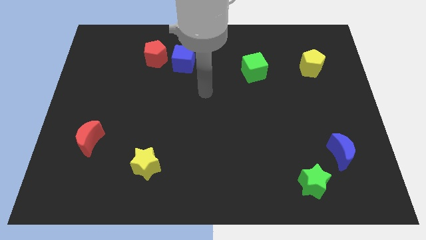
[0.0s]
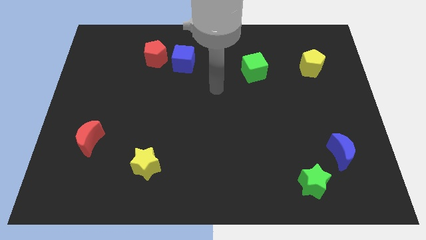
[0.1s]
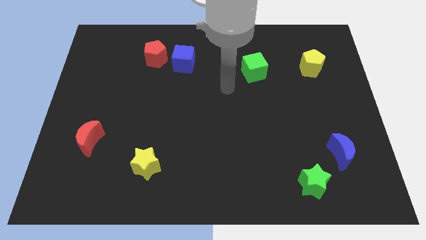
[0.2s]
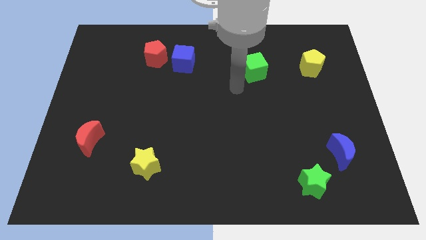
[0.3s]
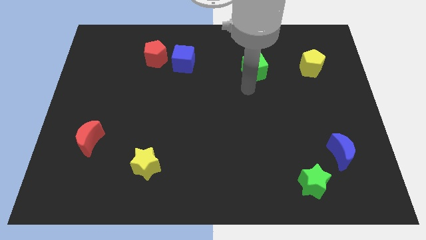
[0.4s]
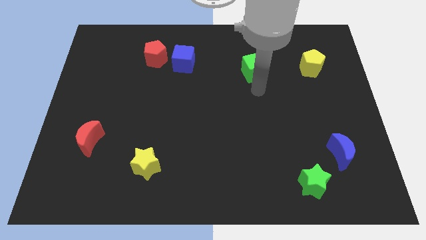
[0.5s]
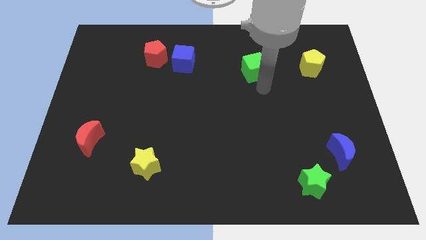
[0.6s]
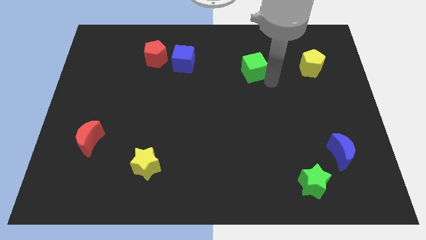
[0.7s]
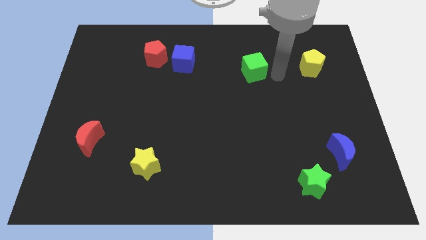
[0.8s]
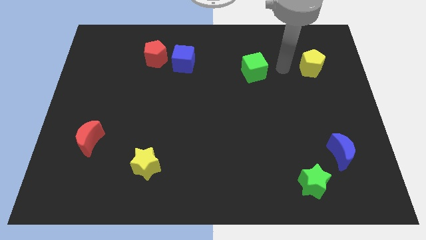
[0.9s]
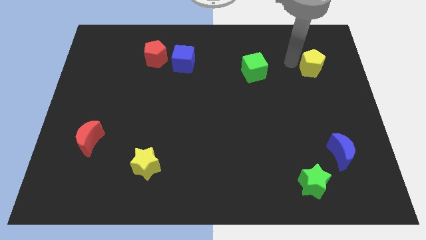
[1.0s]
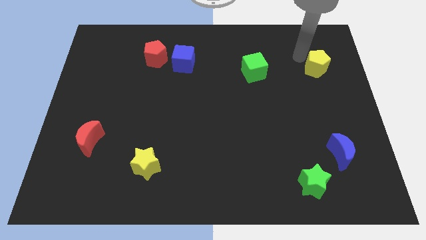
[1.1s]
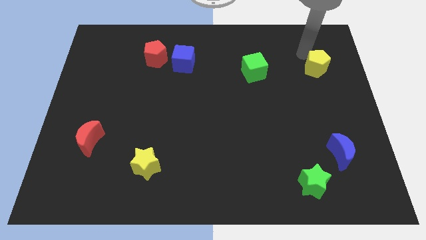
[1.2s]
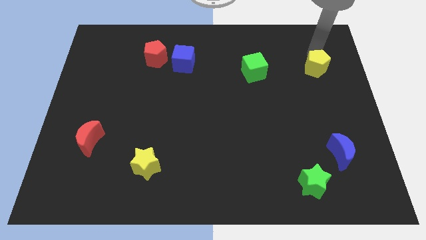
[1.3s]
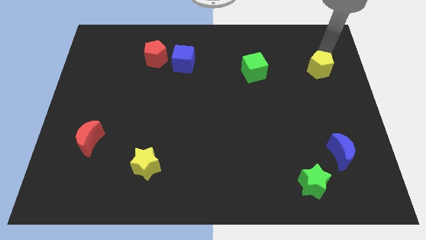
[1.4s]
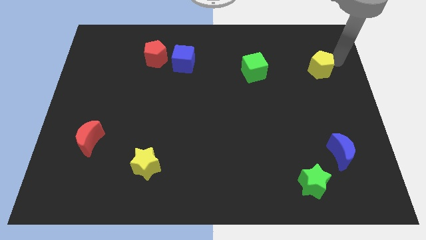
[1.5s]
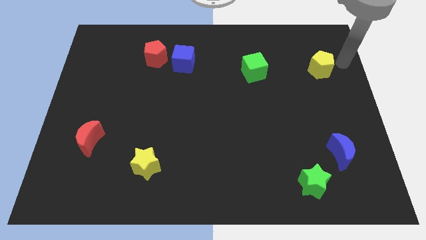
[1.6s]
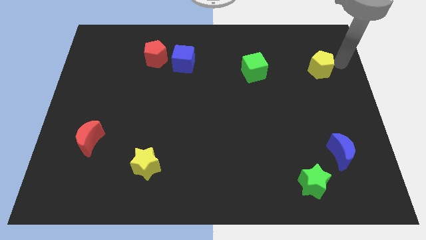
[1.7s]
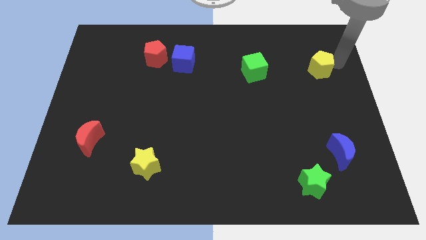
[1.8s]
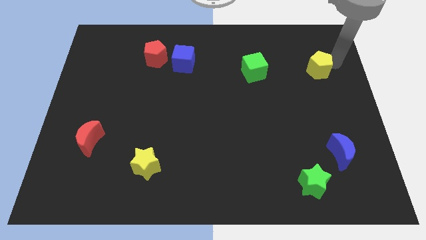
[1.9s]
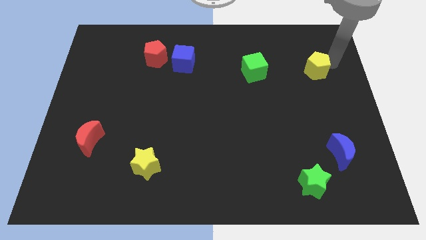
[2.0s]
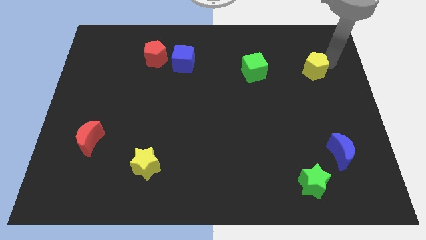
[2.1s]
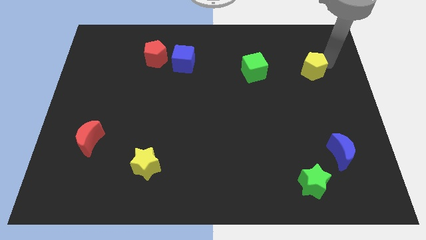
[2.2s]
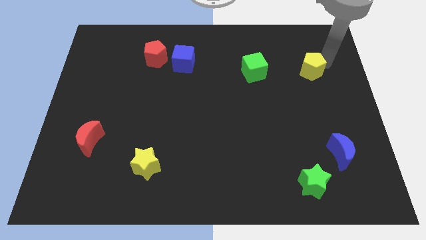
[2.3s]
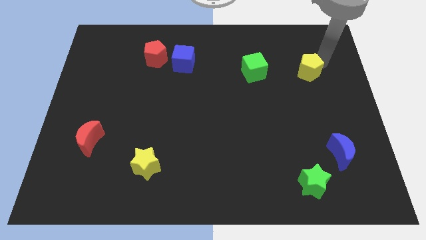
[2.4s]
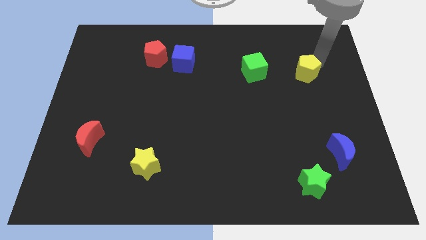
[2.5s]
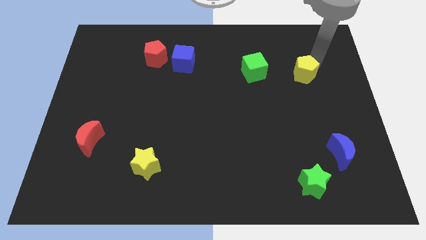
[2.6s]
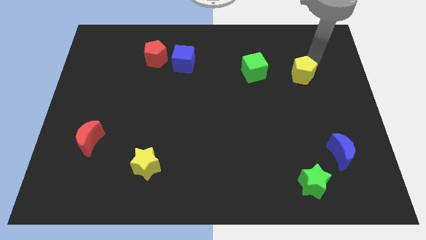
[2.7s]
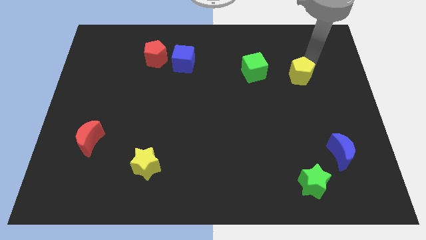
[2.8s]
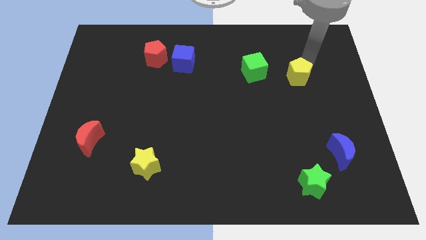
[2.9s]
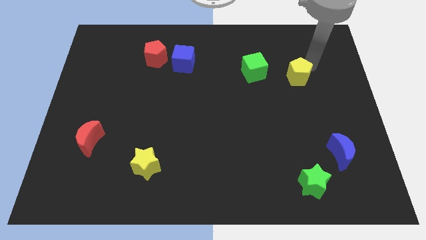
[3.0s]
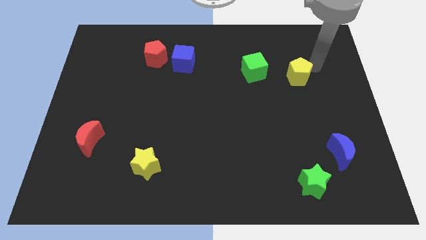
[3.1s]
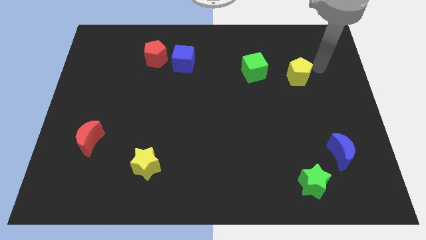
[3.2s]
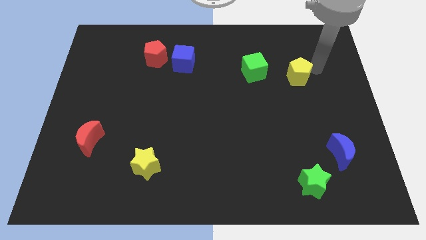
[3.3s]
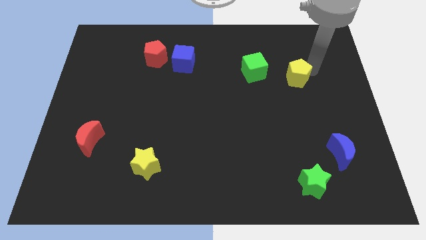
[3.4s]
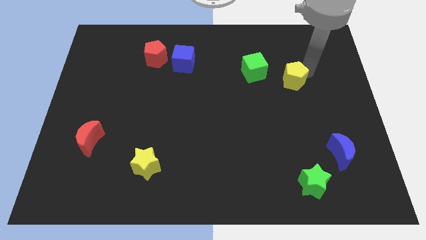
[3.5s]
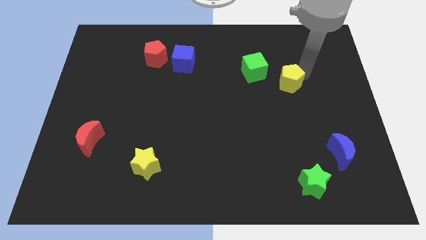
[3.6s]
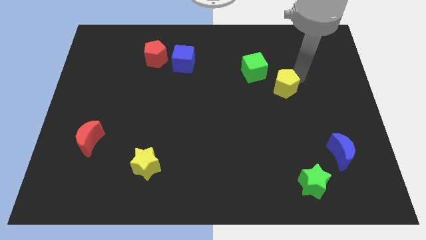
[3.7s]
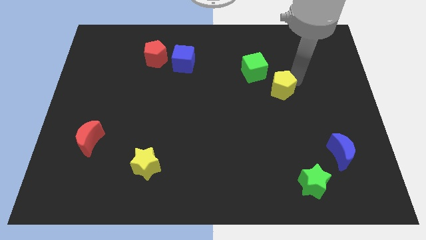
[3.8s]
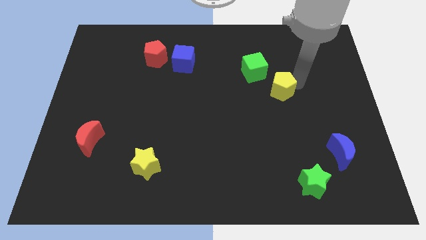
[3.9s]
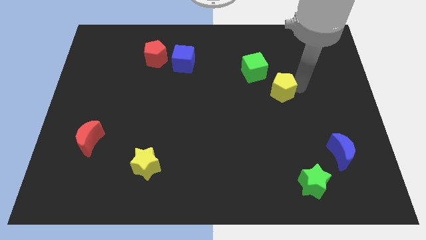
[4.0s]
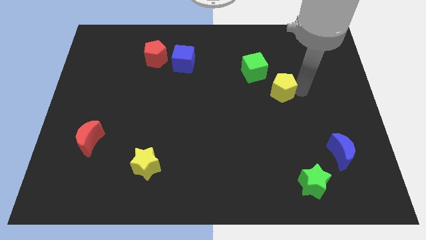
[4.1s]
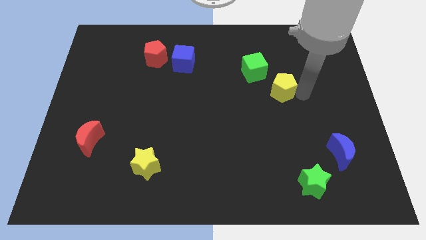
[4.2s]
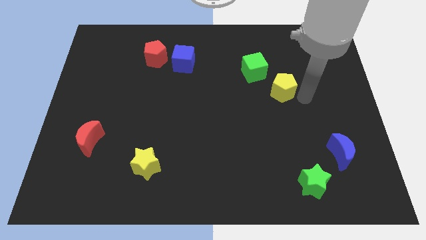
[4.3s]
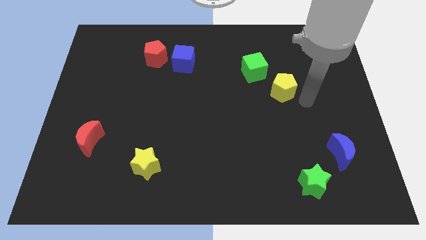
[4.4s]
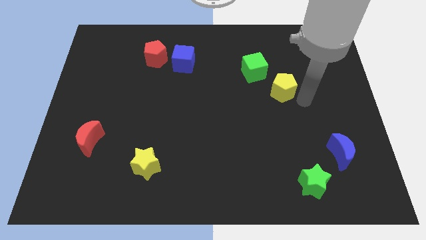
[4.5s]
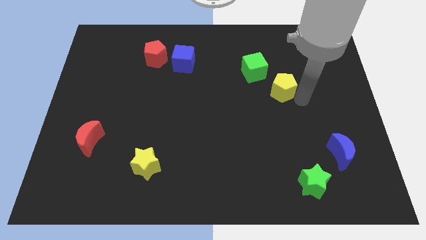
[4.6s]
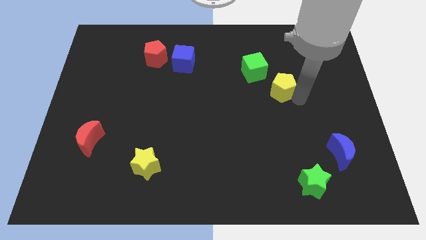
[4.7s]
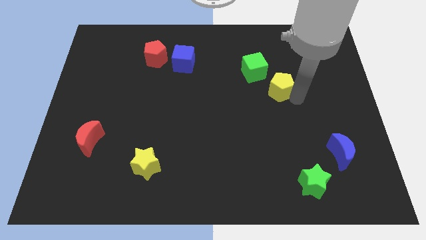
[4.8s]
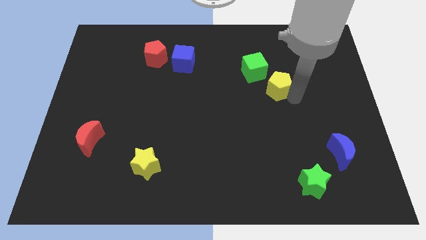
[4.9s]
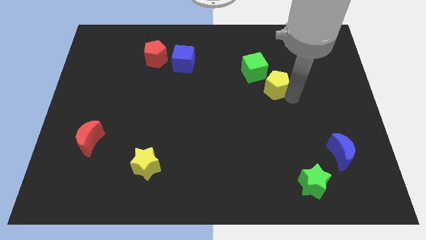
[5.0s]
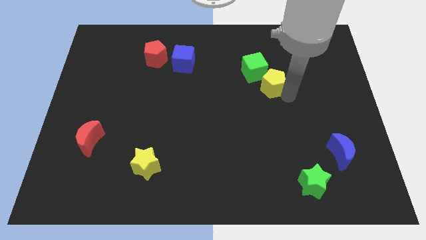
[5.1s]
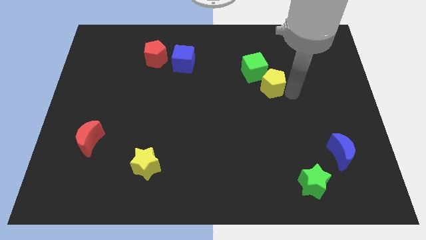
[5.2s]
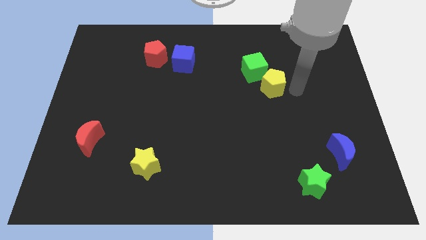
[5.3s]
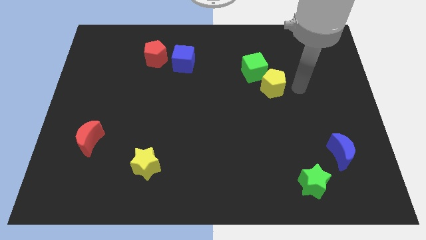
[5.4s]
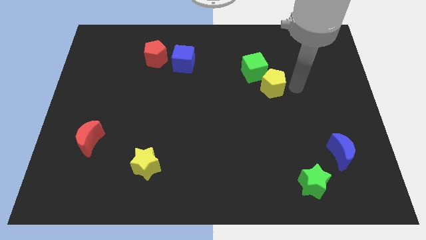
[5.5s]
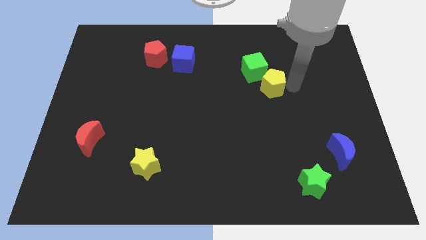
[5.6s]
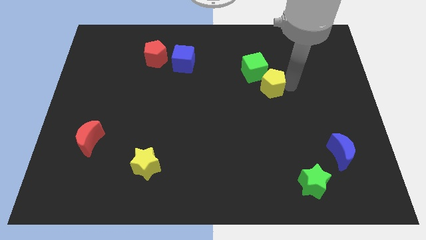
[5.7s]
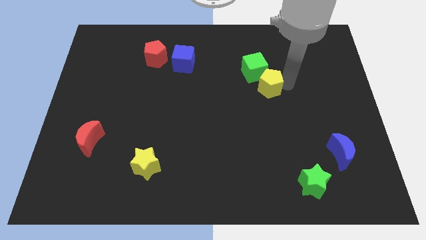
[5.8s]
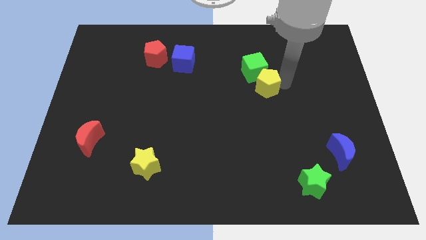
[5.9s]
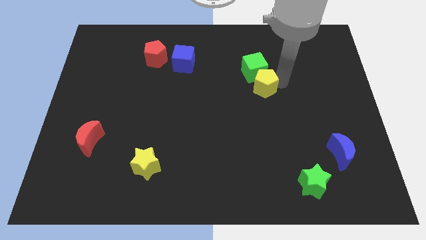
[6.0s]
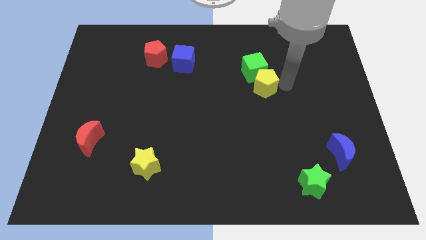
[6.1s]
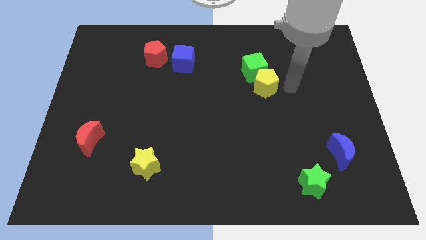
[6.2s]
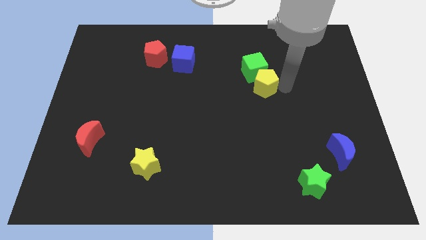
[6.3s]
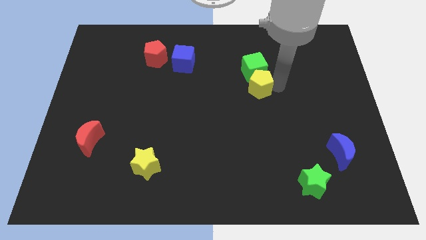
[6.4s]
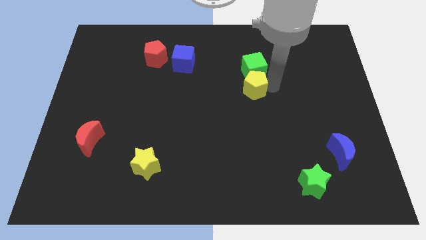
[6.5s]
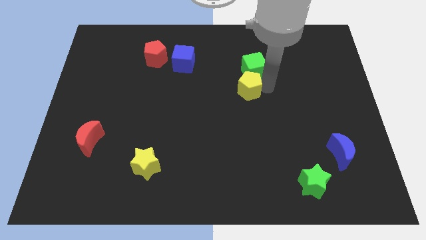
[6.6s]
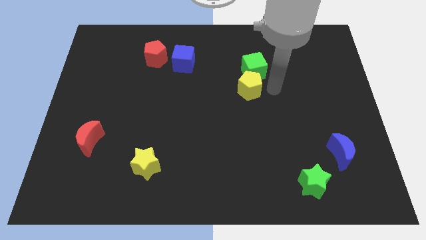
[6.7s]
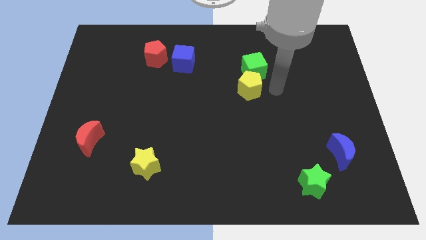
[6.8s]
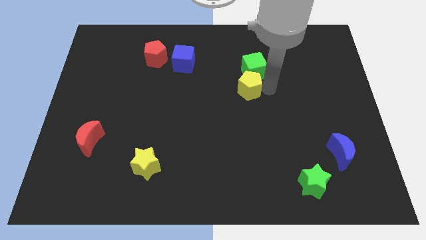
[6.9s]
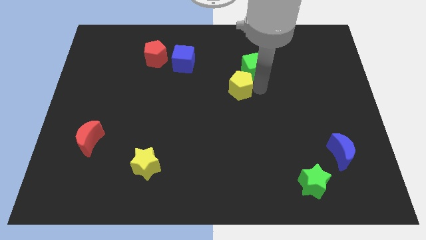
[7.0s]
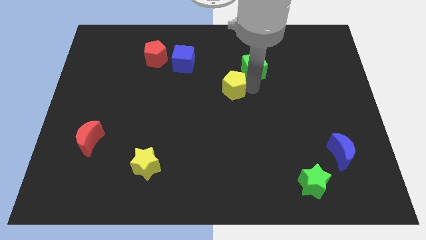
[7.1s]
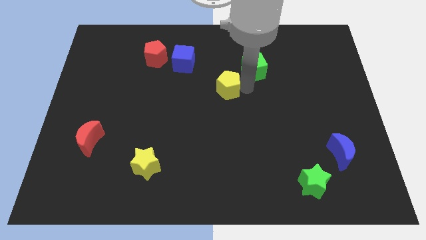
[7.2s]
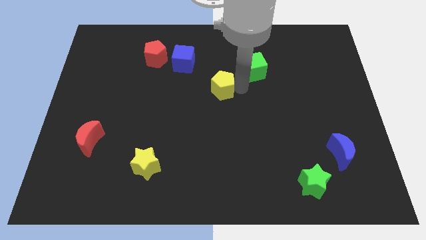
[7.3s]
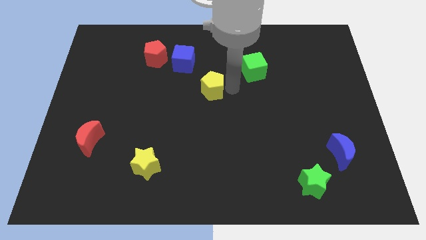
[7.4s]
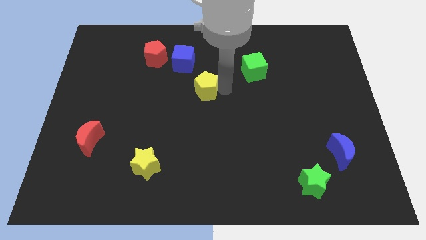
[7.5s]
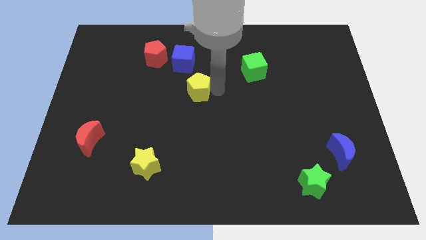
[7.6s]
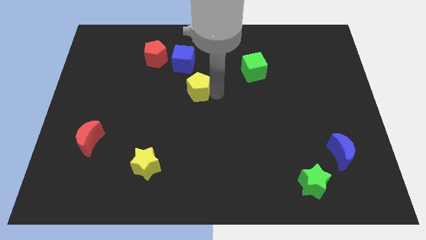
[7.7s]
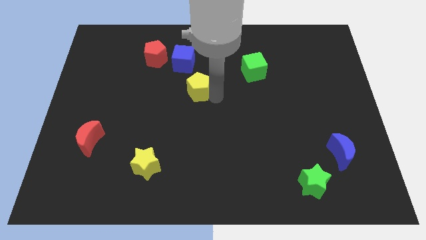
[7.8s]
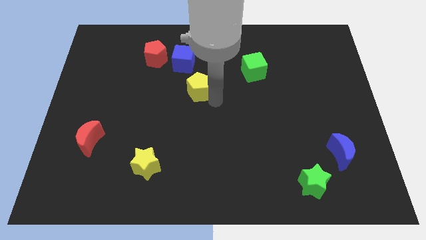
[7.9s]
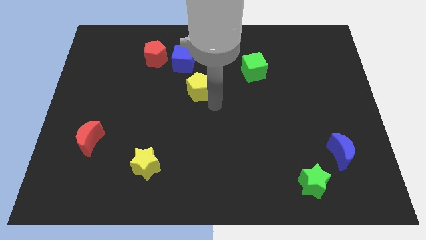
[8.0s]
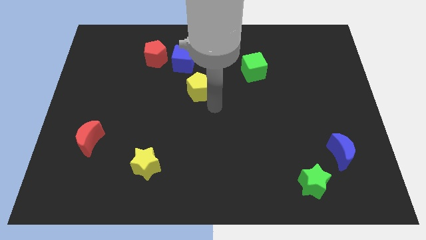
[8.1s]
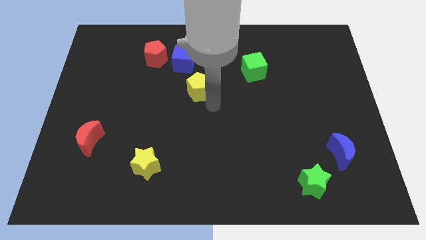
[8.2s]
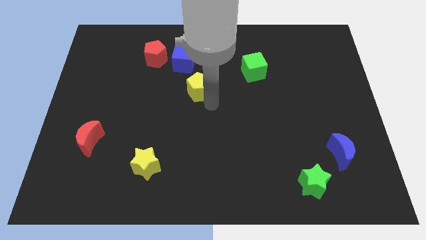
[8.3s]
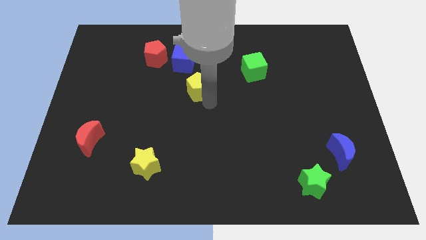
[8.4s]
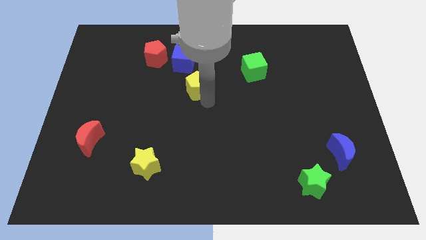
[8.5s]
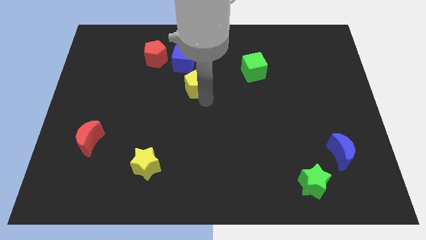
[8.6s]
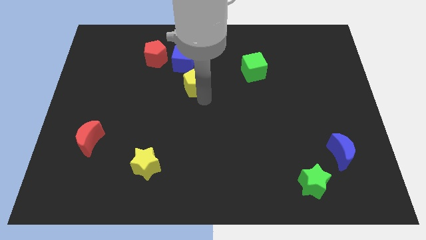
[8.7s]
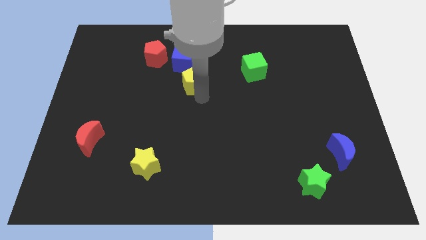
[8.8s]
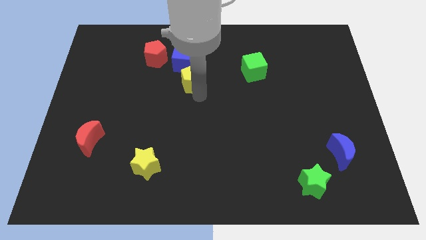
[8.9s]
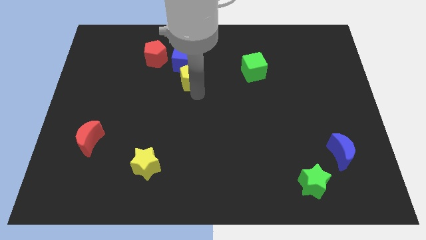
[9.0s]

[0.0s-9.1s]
slide the yellow pentagon to the bottom right of the red pentagon
